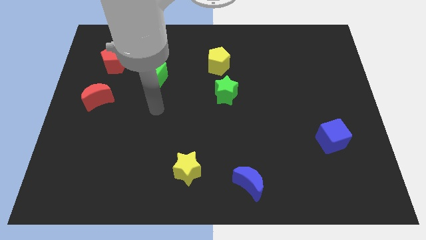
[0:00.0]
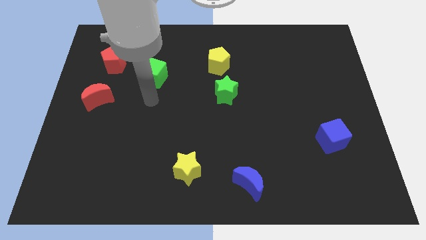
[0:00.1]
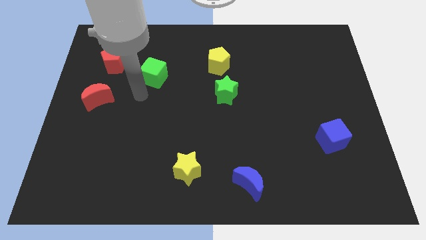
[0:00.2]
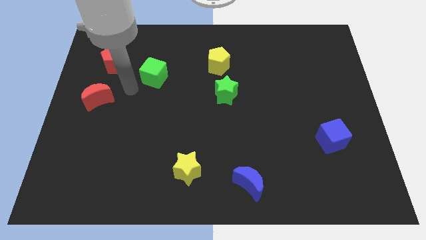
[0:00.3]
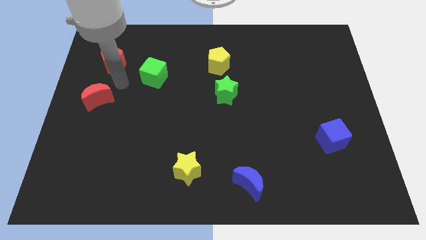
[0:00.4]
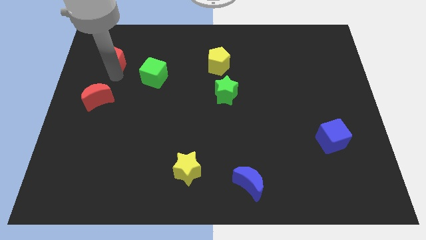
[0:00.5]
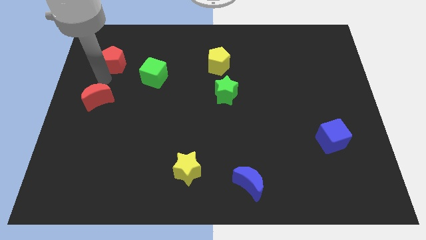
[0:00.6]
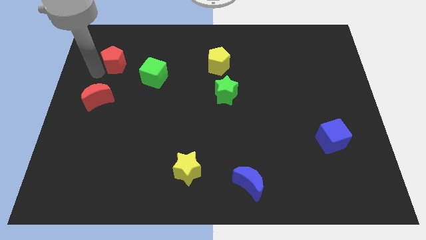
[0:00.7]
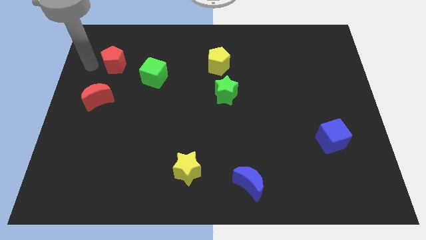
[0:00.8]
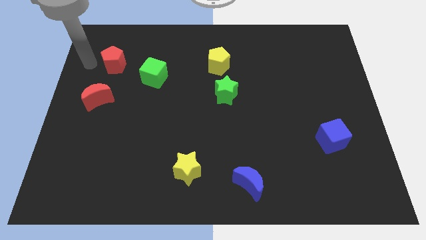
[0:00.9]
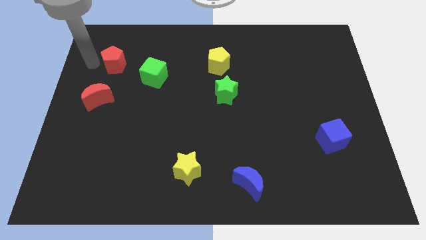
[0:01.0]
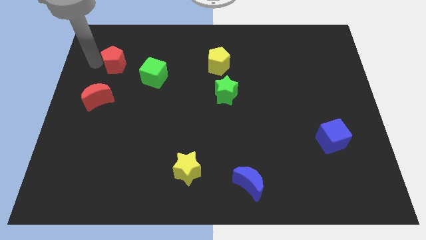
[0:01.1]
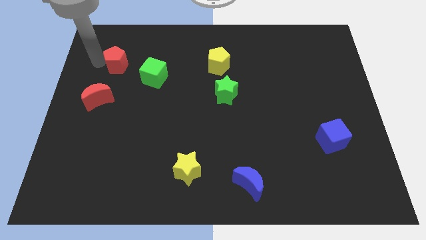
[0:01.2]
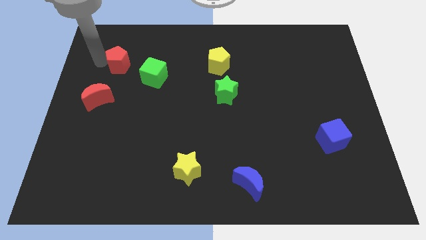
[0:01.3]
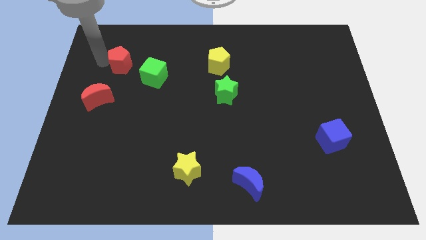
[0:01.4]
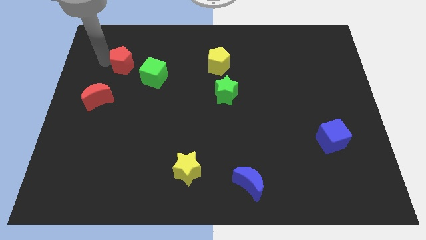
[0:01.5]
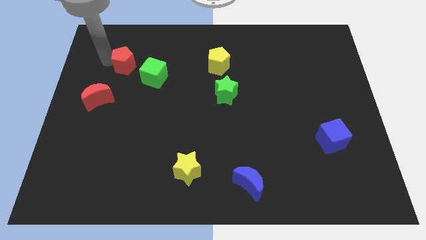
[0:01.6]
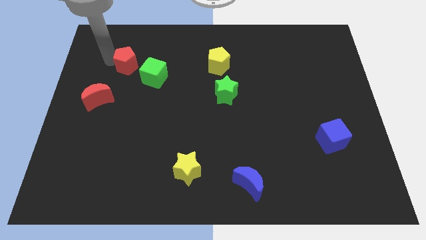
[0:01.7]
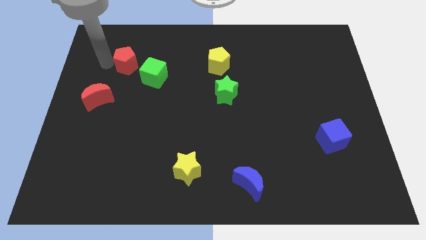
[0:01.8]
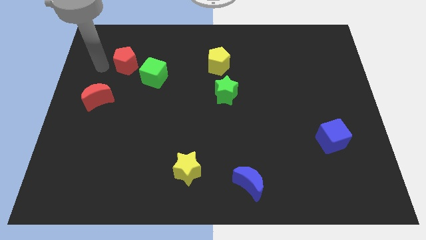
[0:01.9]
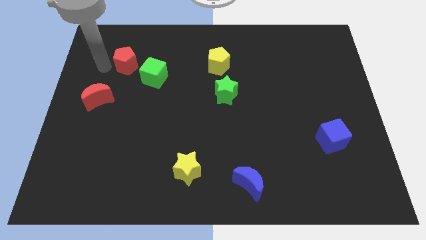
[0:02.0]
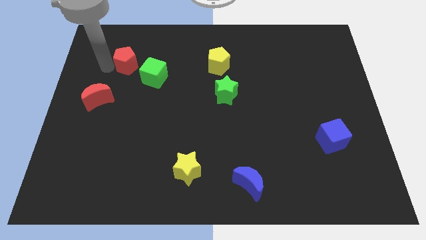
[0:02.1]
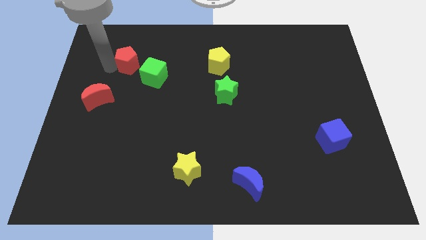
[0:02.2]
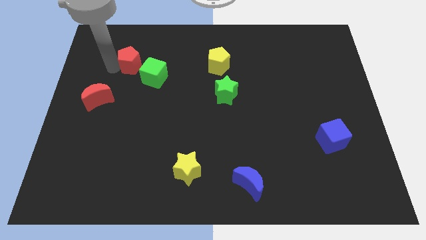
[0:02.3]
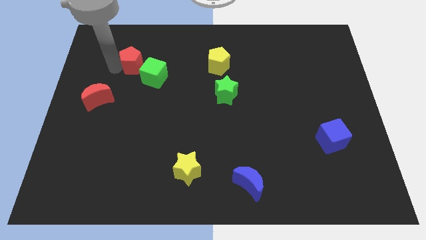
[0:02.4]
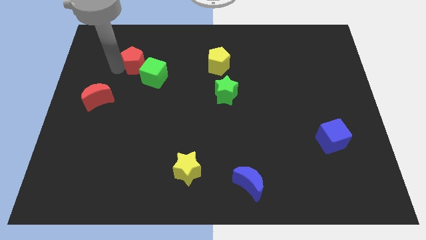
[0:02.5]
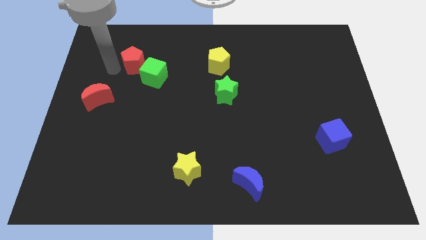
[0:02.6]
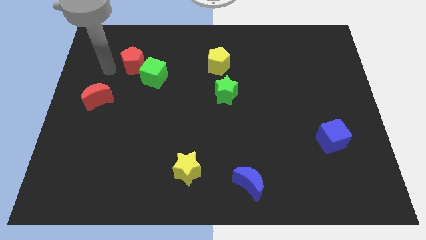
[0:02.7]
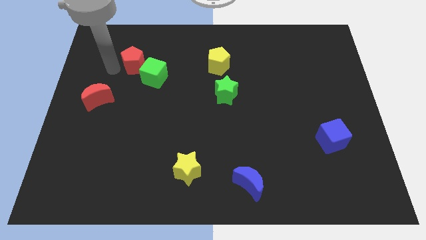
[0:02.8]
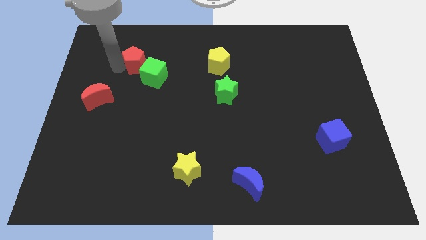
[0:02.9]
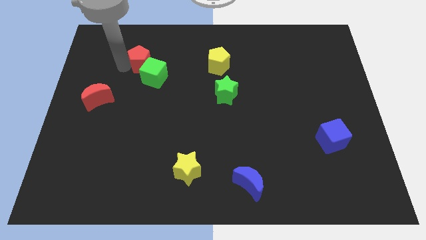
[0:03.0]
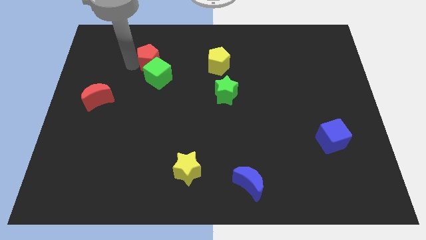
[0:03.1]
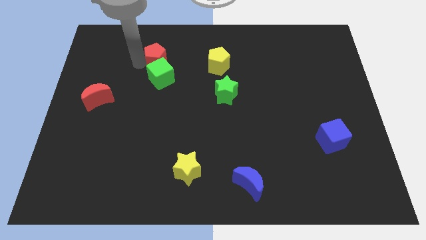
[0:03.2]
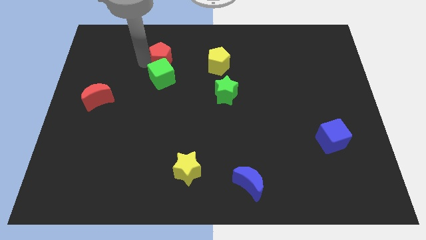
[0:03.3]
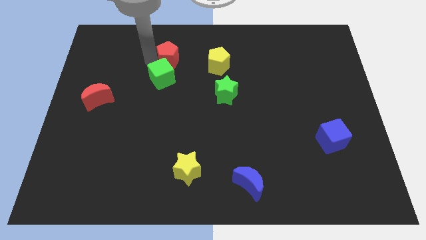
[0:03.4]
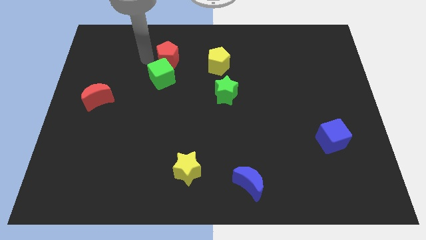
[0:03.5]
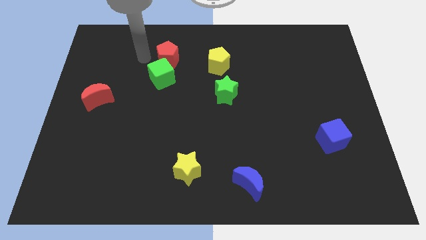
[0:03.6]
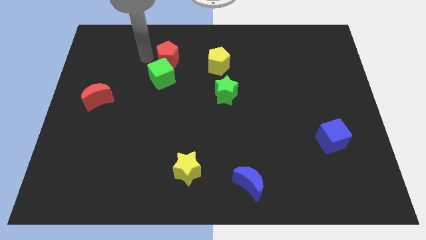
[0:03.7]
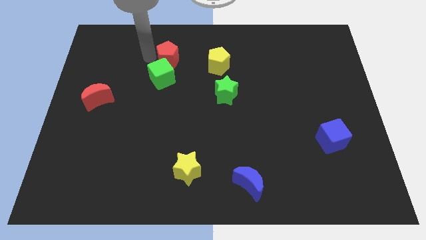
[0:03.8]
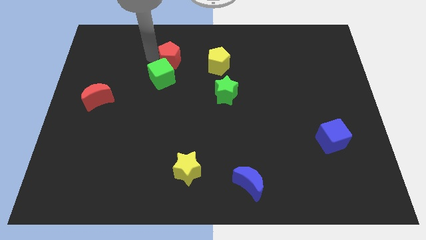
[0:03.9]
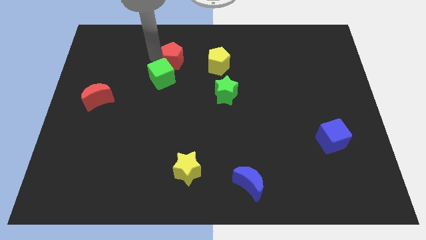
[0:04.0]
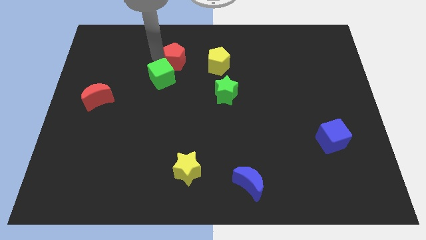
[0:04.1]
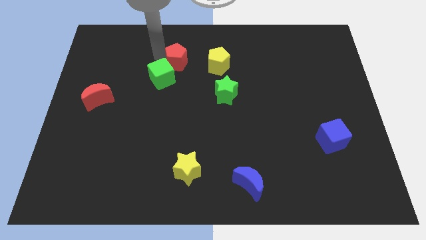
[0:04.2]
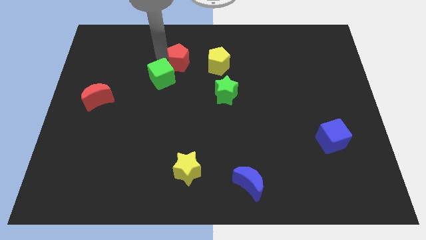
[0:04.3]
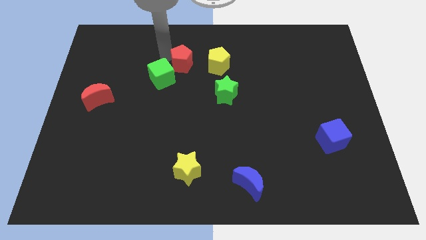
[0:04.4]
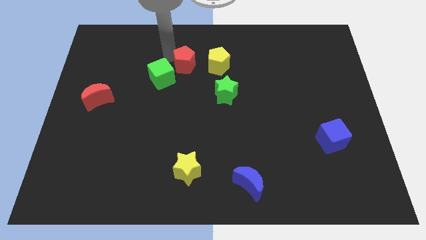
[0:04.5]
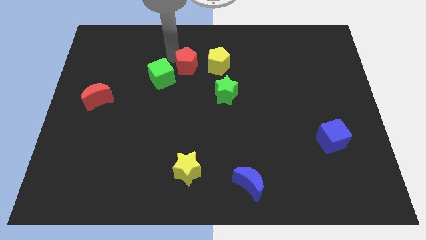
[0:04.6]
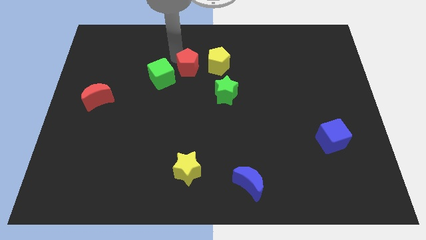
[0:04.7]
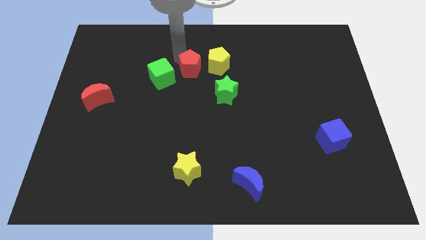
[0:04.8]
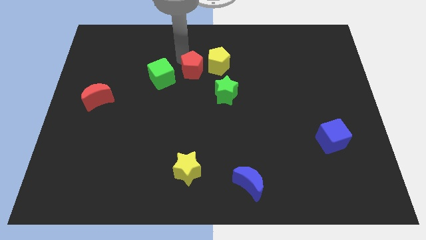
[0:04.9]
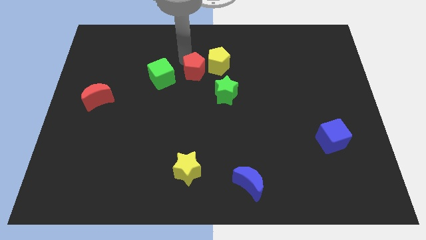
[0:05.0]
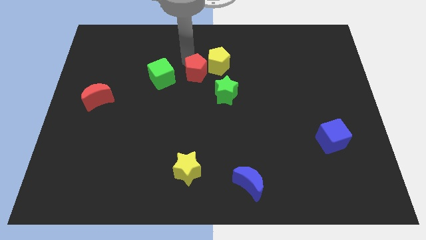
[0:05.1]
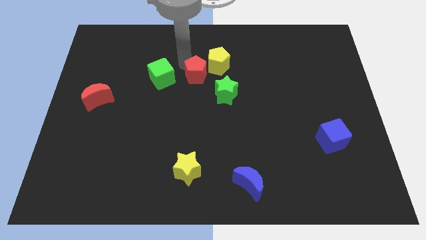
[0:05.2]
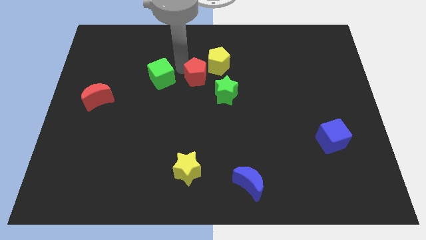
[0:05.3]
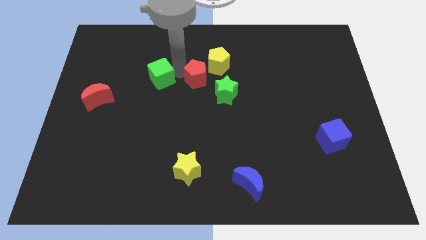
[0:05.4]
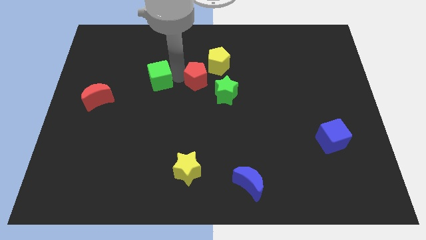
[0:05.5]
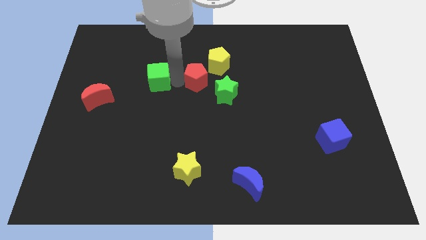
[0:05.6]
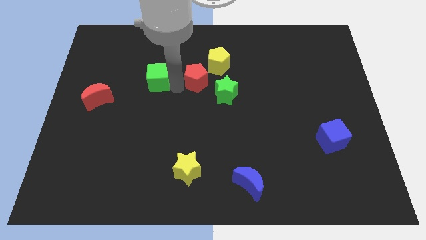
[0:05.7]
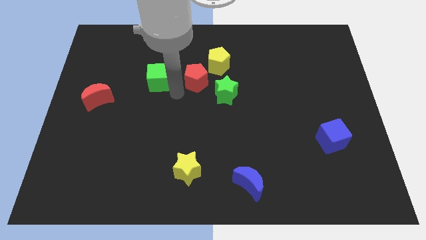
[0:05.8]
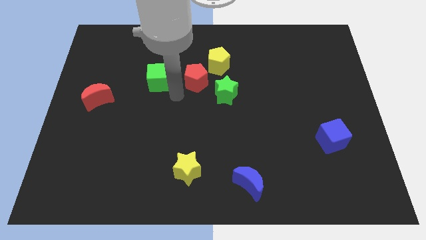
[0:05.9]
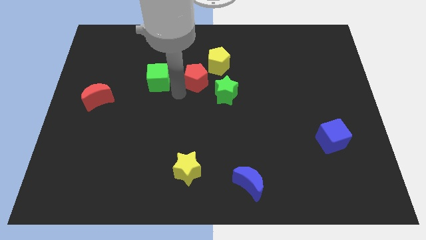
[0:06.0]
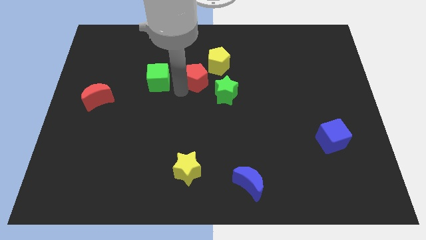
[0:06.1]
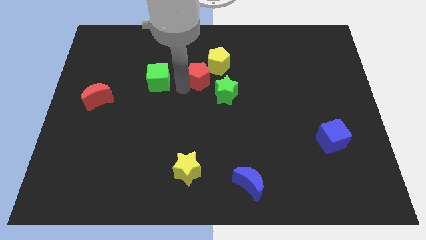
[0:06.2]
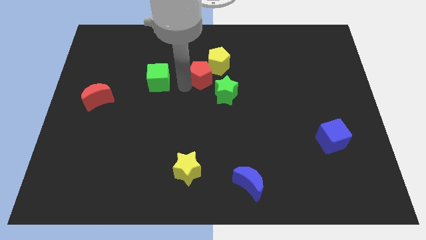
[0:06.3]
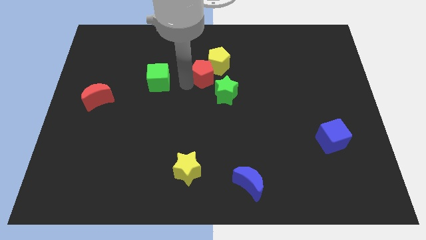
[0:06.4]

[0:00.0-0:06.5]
put the red pentagon next to the yellow pentagon
